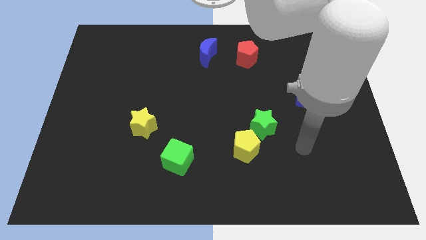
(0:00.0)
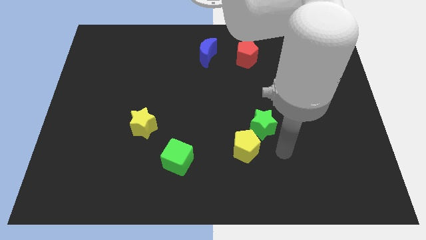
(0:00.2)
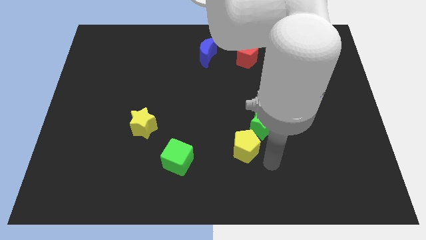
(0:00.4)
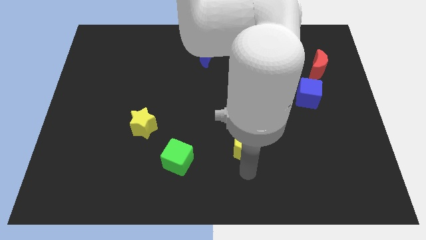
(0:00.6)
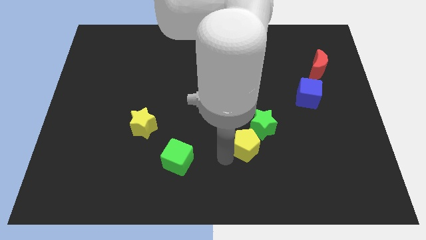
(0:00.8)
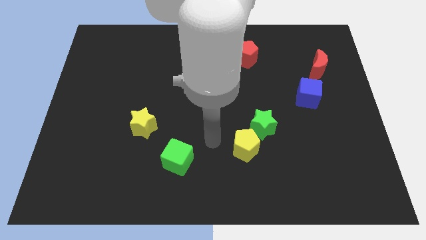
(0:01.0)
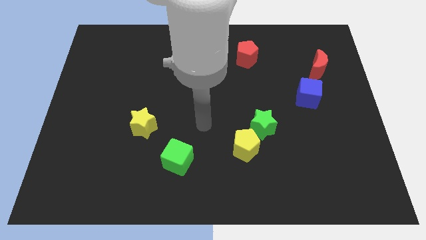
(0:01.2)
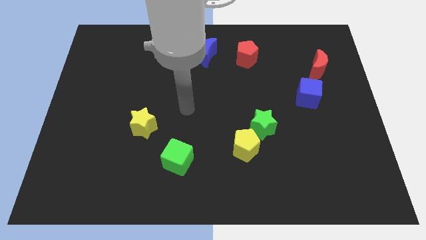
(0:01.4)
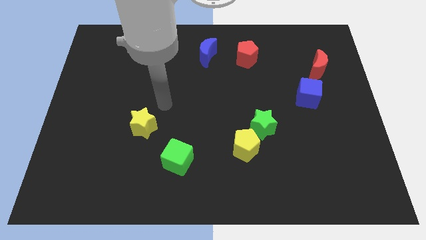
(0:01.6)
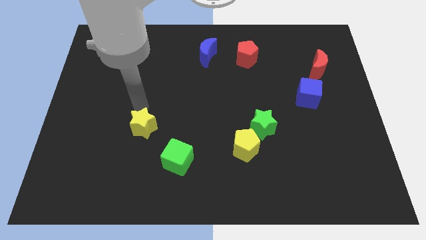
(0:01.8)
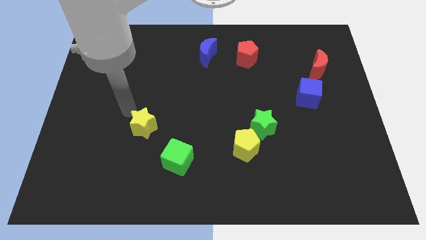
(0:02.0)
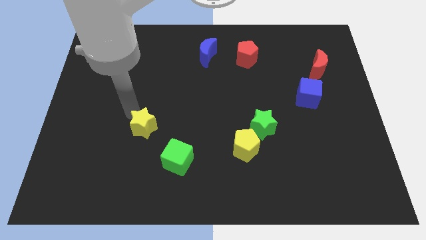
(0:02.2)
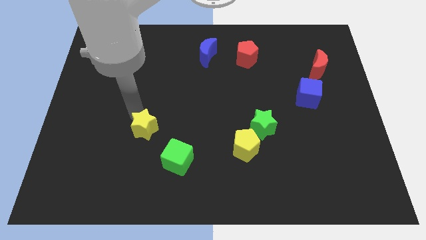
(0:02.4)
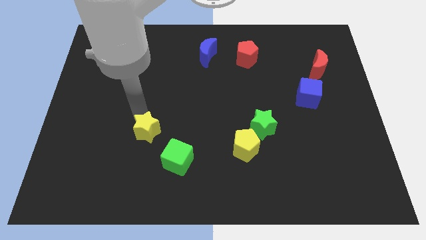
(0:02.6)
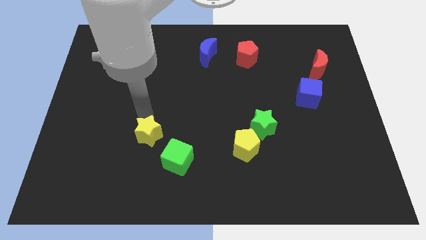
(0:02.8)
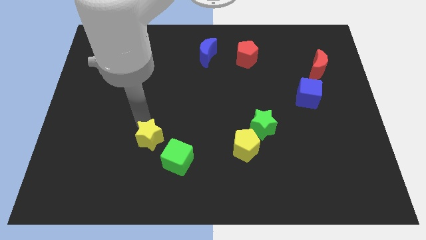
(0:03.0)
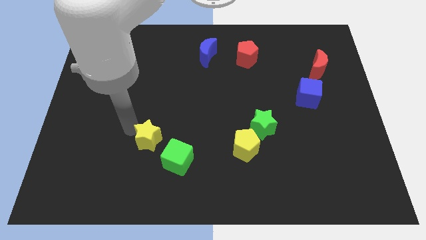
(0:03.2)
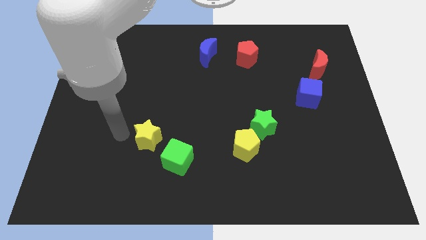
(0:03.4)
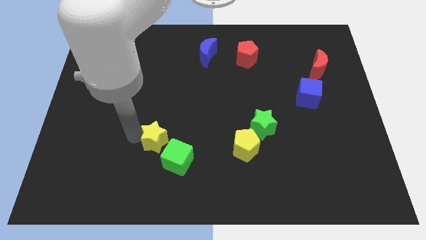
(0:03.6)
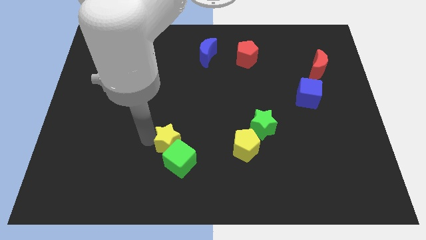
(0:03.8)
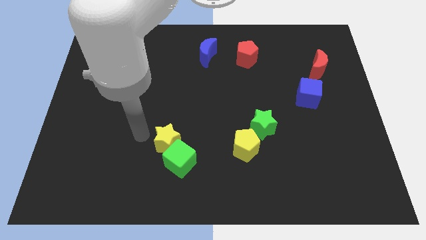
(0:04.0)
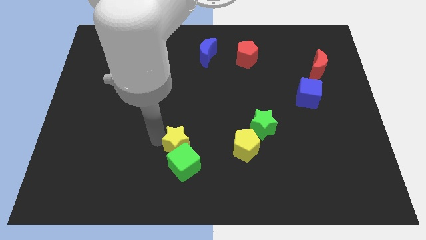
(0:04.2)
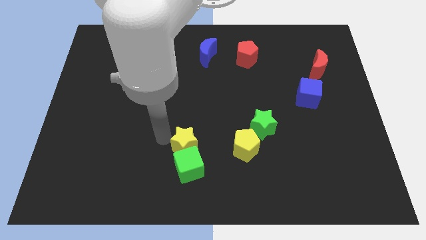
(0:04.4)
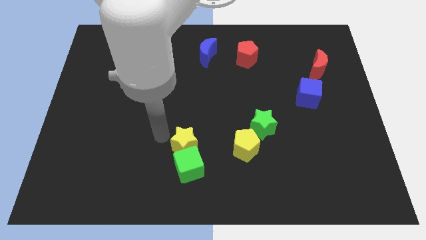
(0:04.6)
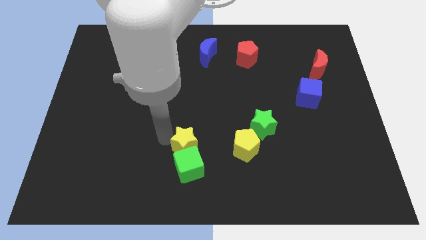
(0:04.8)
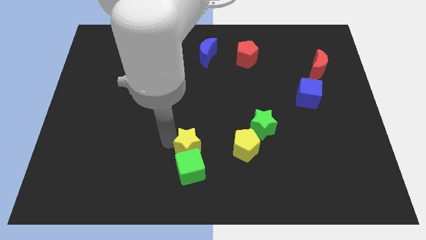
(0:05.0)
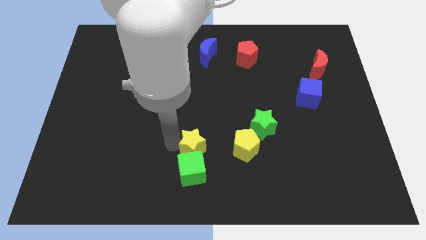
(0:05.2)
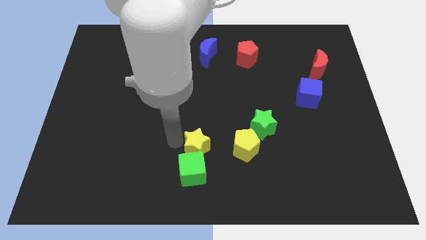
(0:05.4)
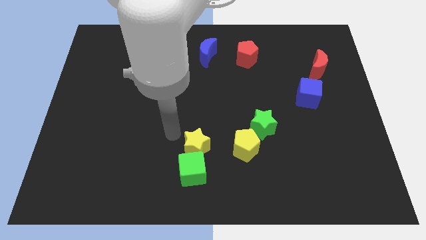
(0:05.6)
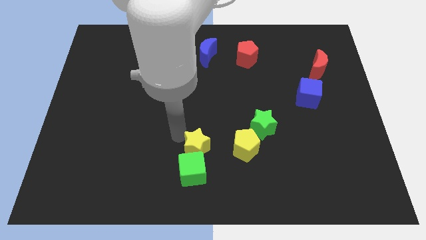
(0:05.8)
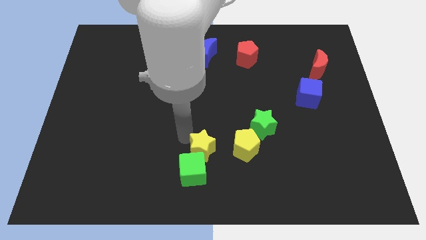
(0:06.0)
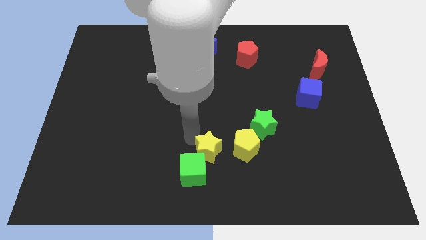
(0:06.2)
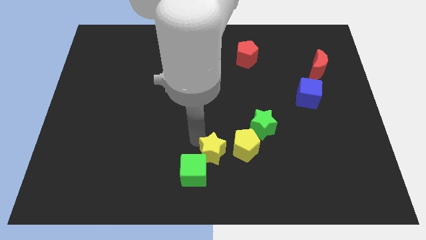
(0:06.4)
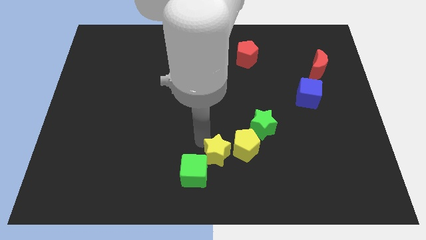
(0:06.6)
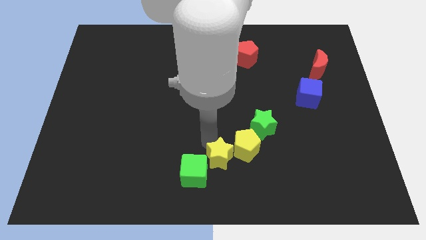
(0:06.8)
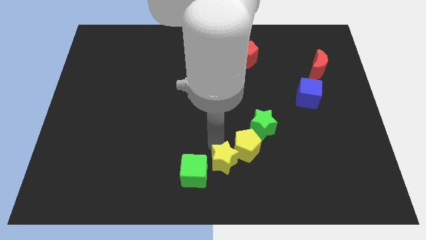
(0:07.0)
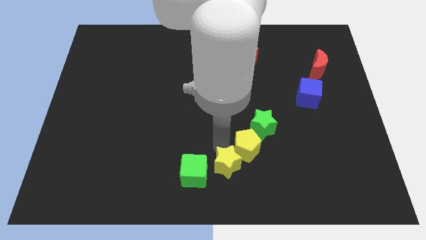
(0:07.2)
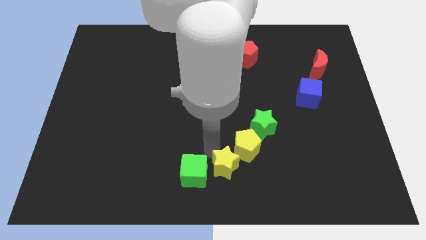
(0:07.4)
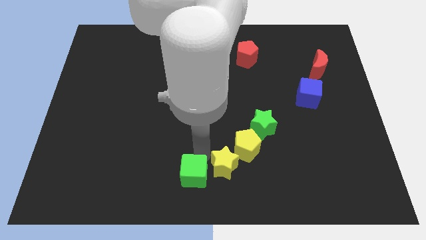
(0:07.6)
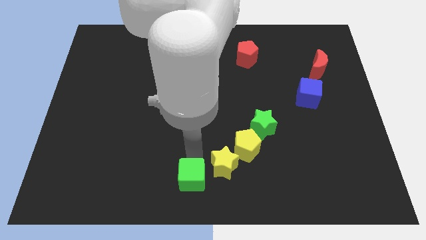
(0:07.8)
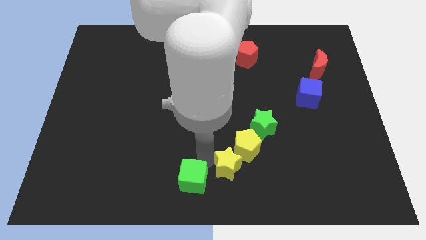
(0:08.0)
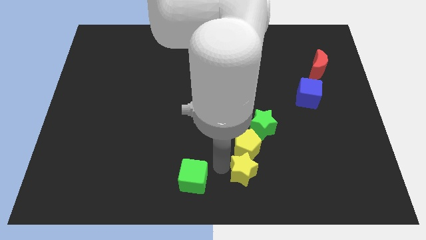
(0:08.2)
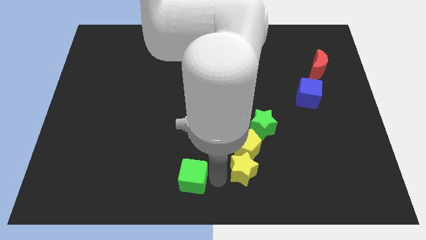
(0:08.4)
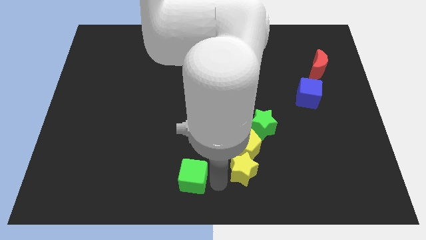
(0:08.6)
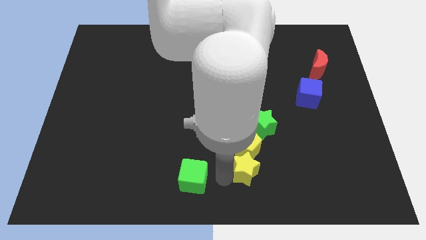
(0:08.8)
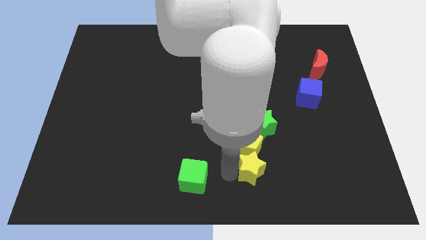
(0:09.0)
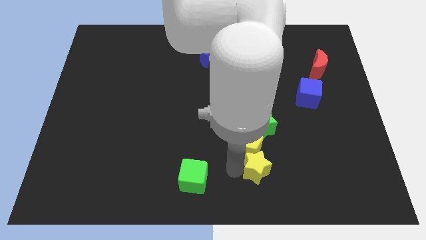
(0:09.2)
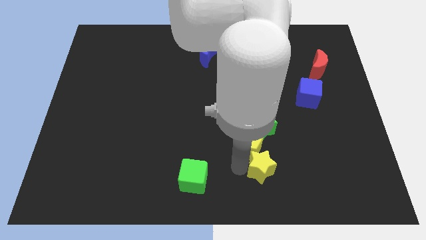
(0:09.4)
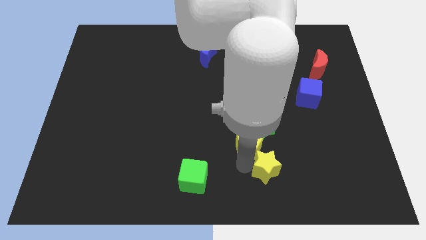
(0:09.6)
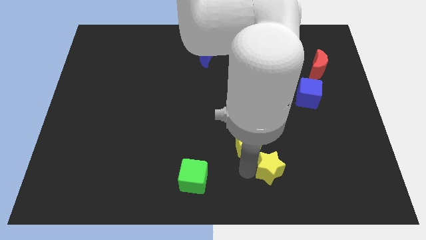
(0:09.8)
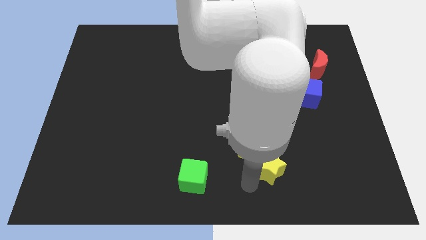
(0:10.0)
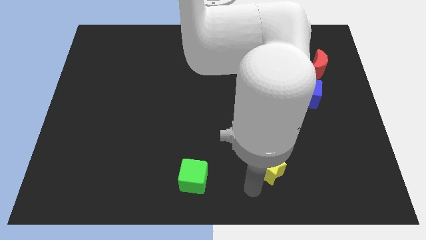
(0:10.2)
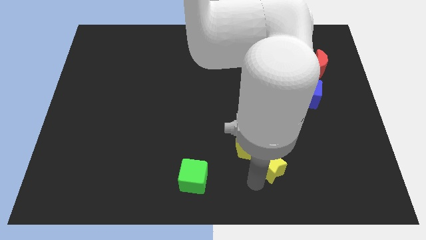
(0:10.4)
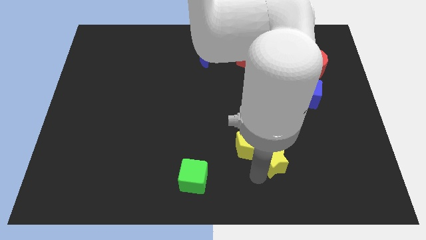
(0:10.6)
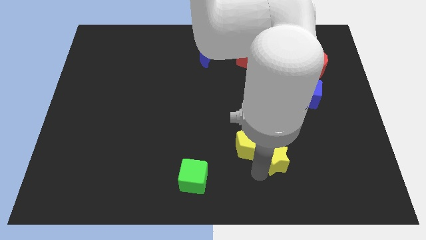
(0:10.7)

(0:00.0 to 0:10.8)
move the yellow star to the bottom right of the green star

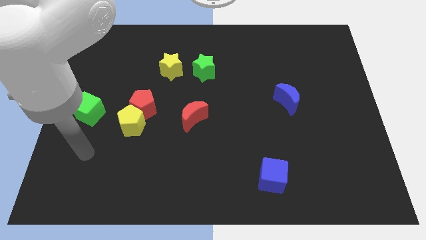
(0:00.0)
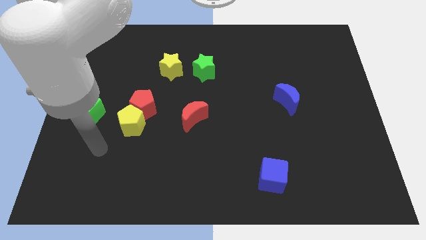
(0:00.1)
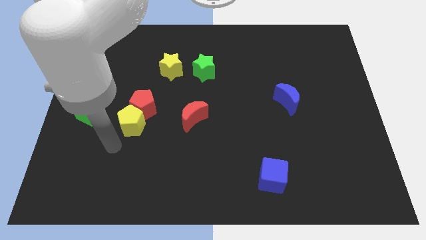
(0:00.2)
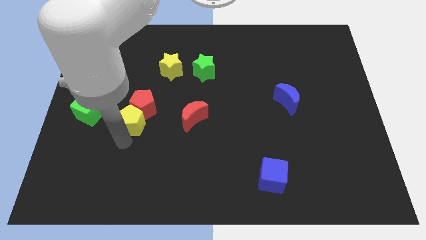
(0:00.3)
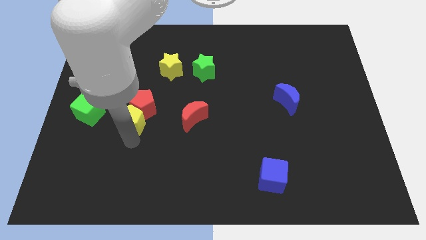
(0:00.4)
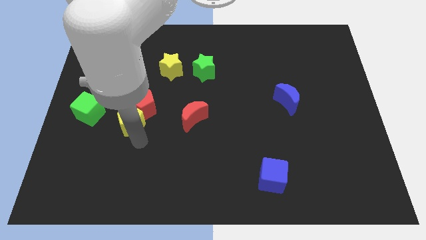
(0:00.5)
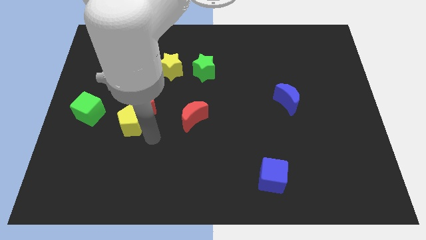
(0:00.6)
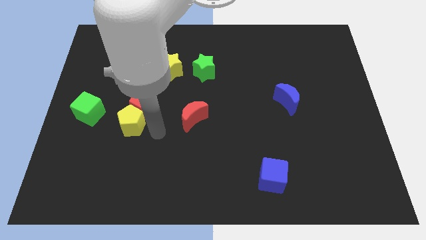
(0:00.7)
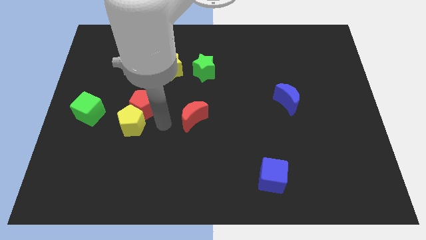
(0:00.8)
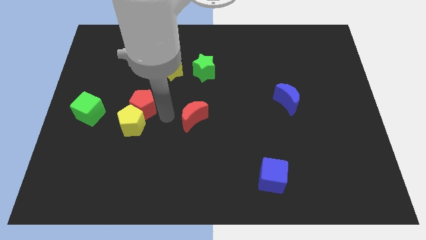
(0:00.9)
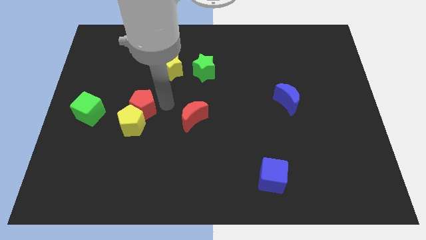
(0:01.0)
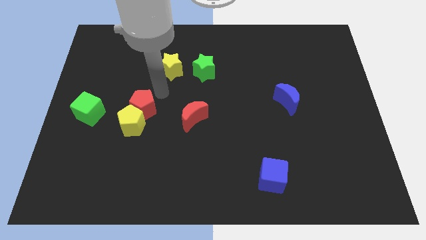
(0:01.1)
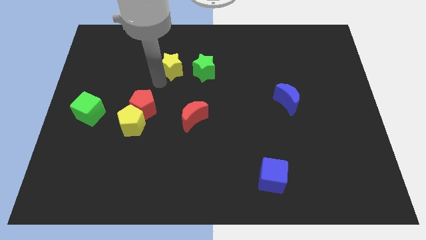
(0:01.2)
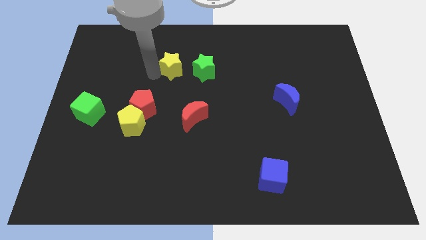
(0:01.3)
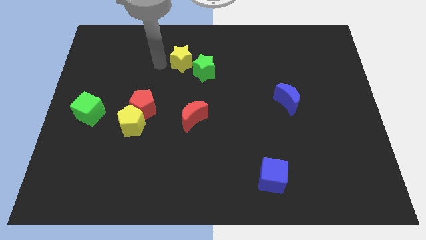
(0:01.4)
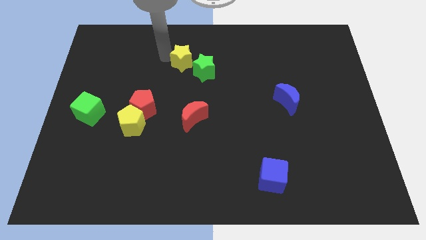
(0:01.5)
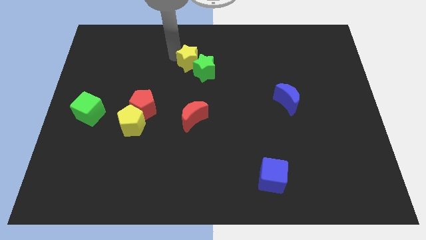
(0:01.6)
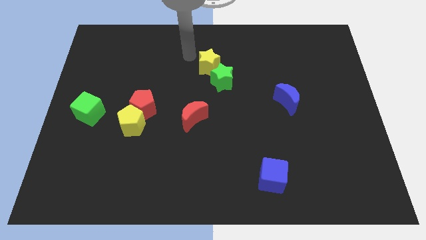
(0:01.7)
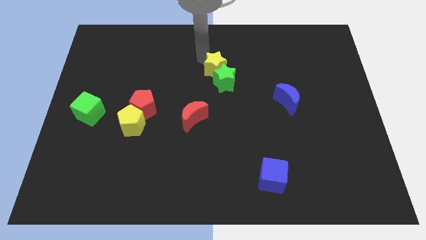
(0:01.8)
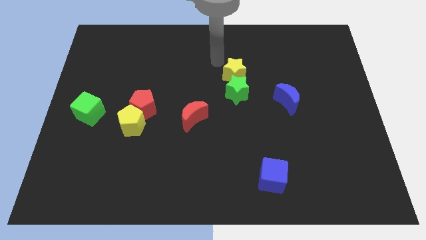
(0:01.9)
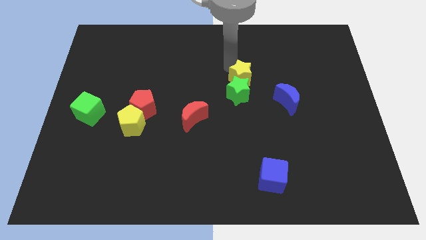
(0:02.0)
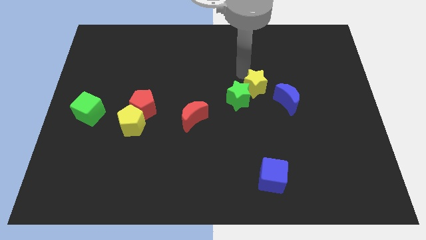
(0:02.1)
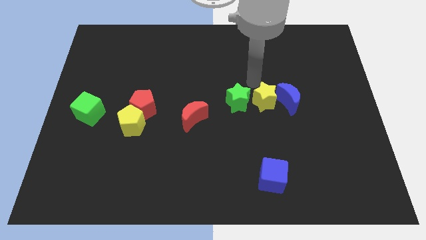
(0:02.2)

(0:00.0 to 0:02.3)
slide the green star just right of the red moon
